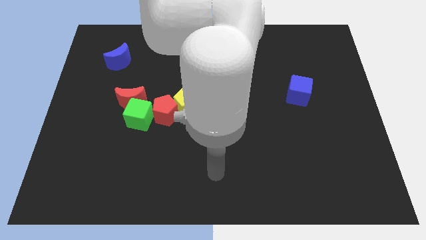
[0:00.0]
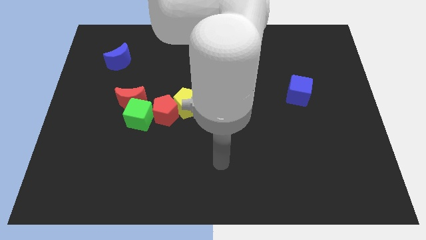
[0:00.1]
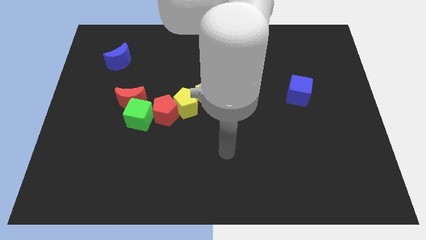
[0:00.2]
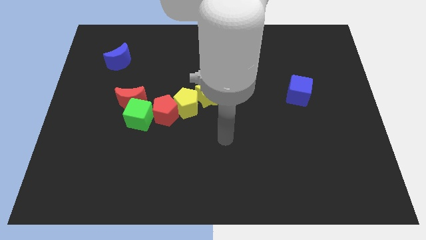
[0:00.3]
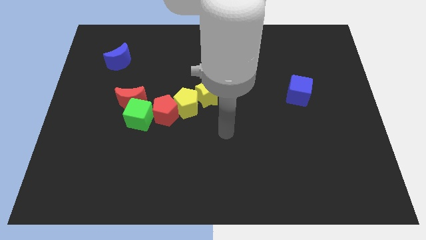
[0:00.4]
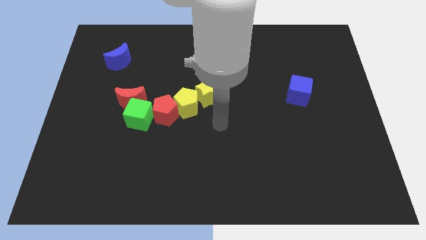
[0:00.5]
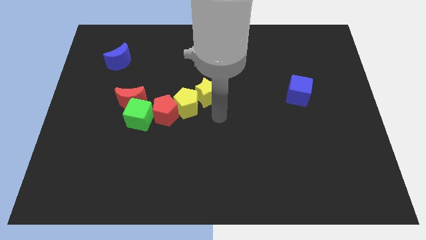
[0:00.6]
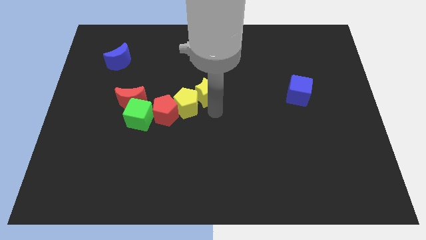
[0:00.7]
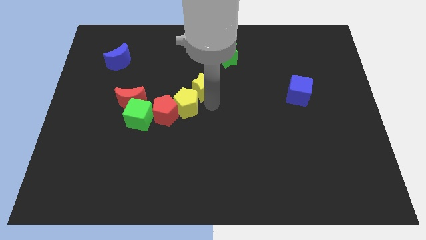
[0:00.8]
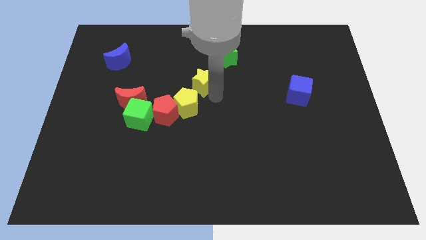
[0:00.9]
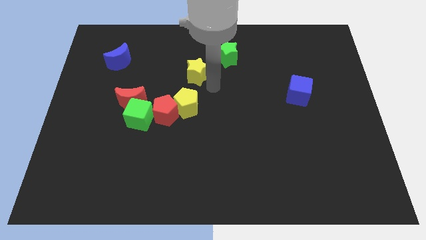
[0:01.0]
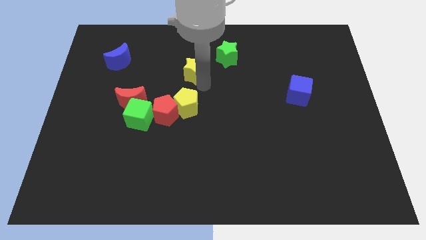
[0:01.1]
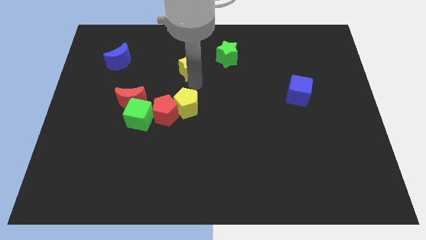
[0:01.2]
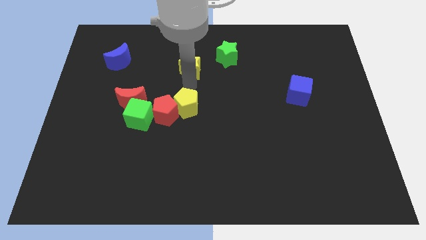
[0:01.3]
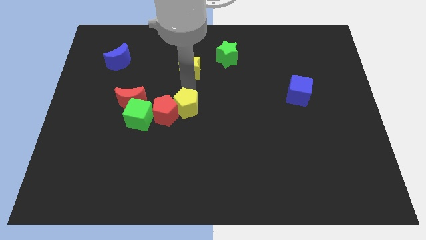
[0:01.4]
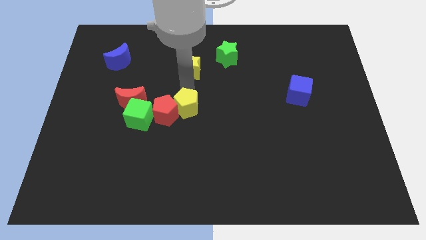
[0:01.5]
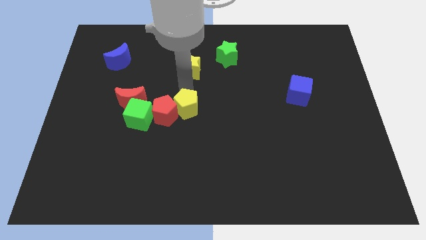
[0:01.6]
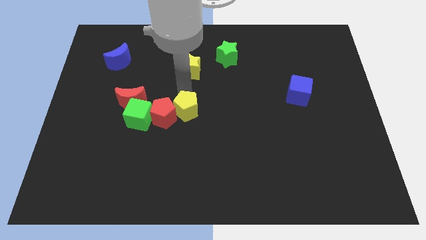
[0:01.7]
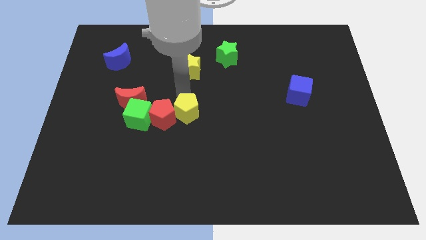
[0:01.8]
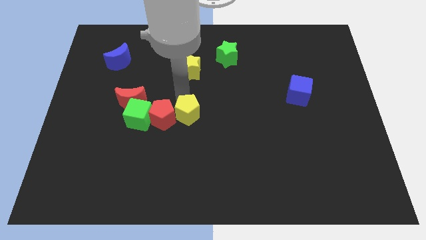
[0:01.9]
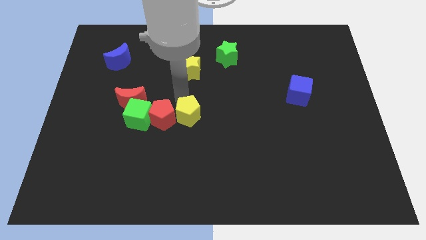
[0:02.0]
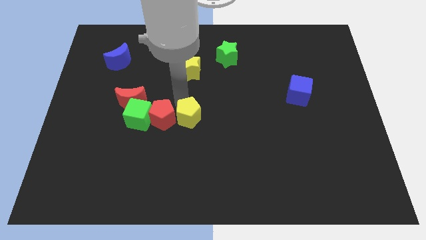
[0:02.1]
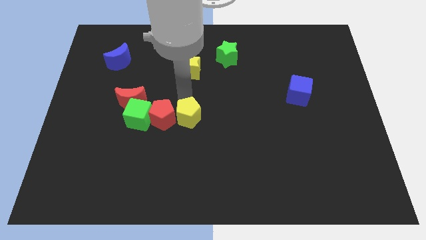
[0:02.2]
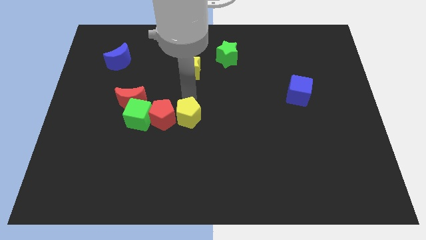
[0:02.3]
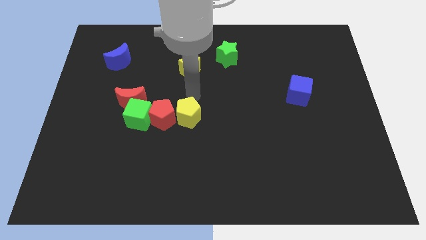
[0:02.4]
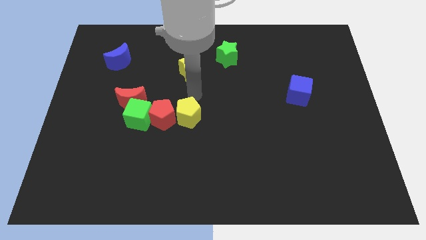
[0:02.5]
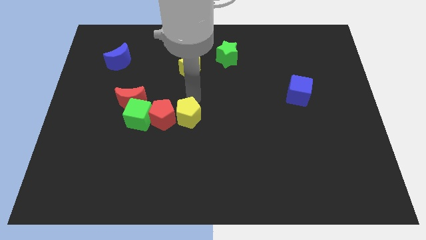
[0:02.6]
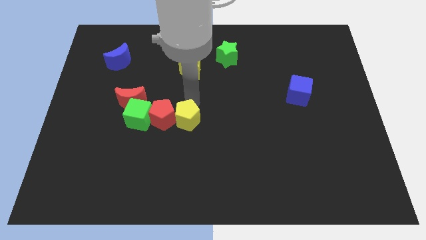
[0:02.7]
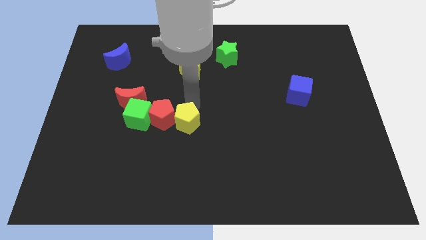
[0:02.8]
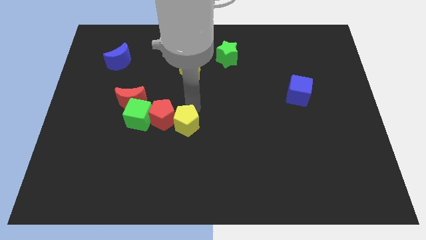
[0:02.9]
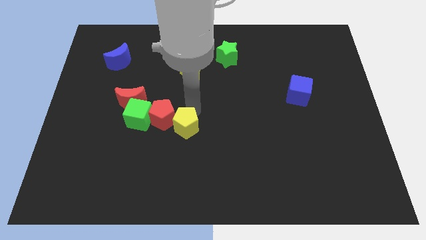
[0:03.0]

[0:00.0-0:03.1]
separate the yellow pentagon from the red pentagon and yellow star

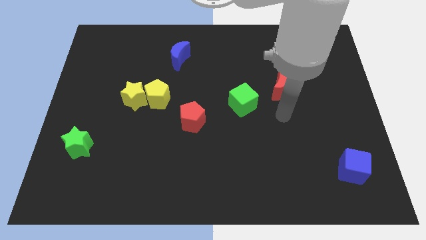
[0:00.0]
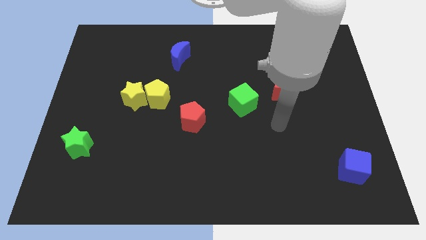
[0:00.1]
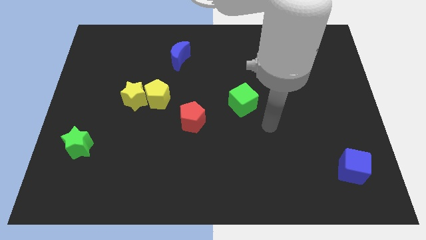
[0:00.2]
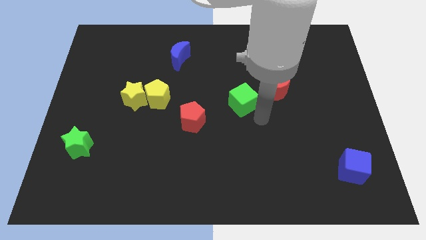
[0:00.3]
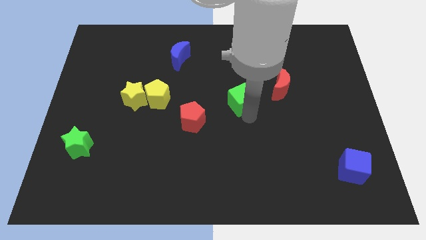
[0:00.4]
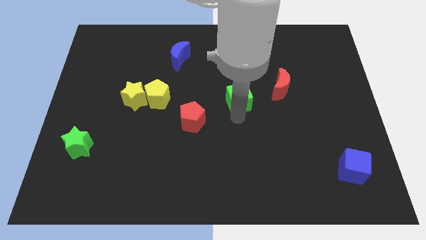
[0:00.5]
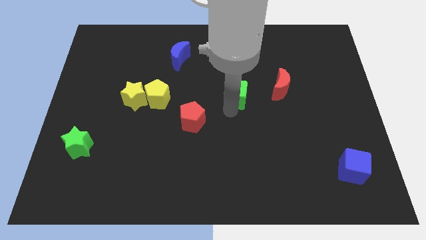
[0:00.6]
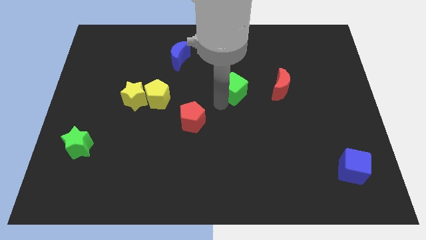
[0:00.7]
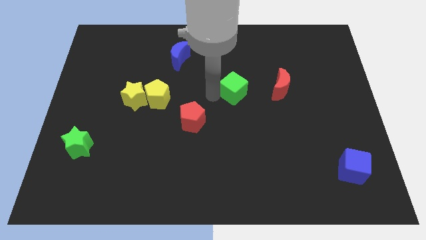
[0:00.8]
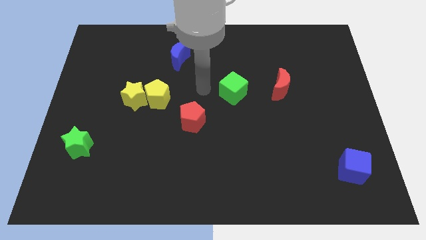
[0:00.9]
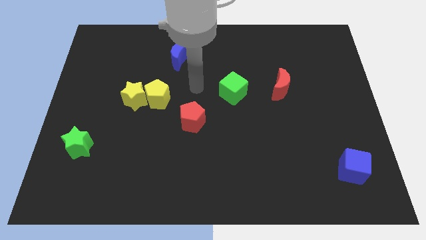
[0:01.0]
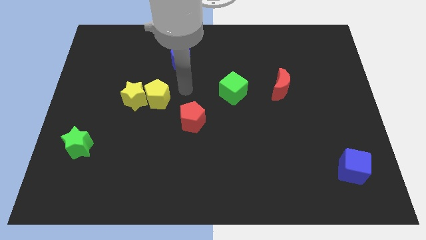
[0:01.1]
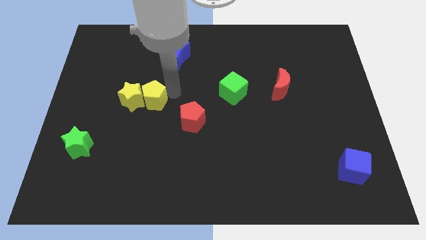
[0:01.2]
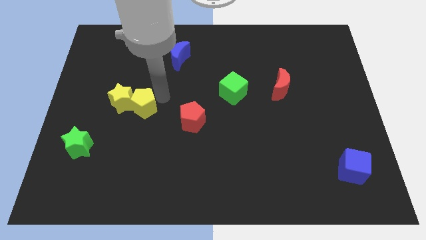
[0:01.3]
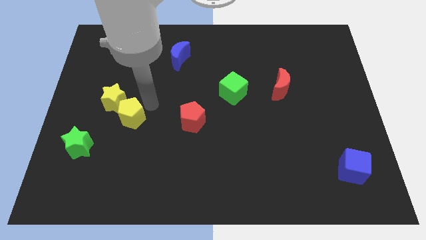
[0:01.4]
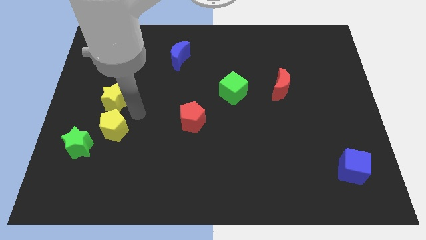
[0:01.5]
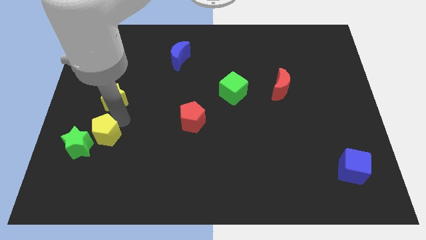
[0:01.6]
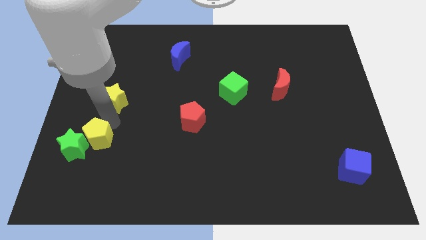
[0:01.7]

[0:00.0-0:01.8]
pull the yellow star apart from the yellow pentagon

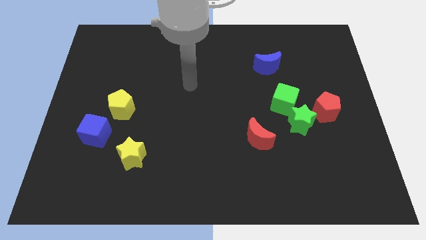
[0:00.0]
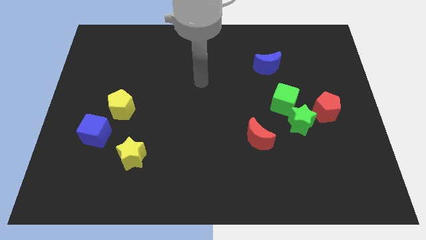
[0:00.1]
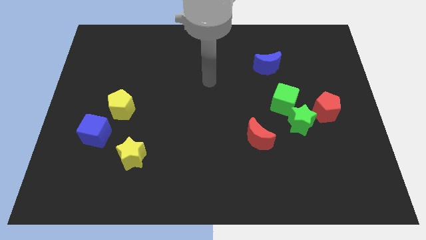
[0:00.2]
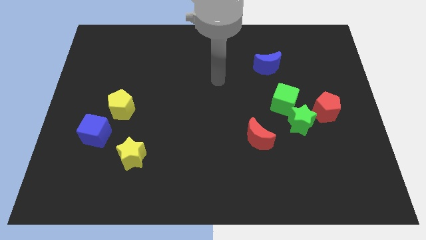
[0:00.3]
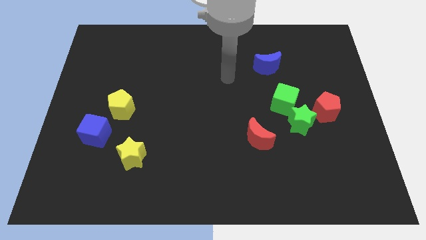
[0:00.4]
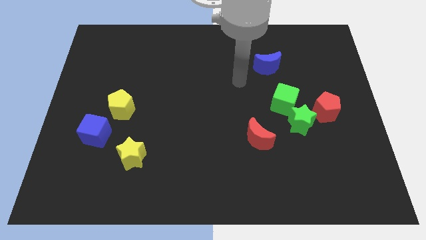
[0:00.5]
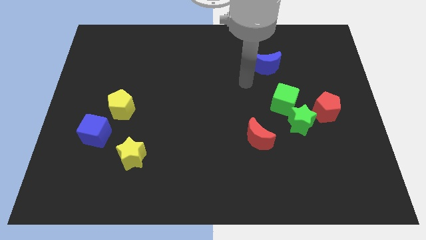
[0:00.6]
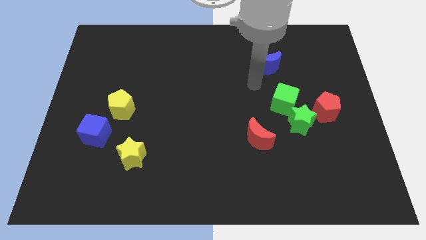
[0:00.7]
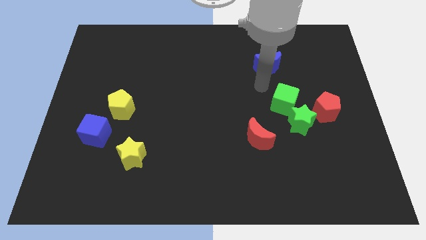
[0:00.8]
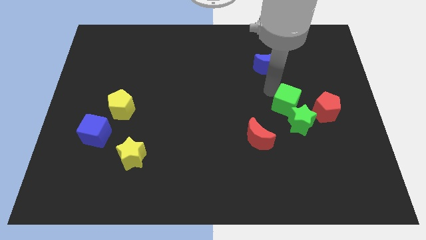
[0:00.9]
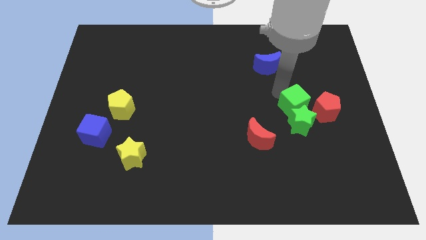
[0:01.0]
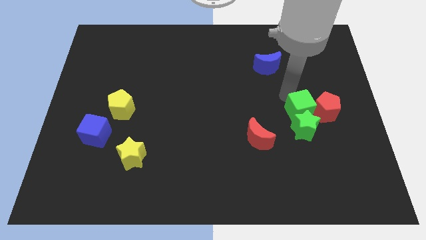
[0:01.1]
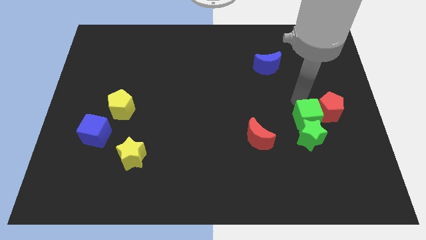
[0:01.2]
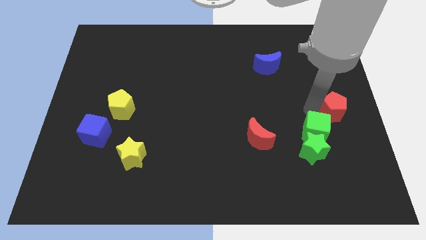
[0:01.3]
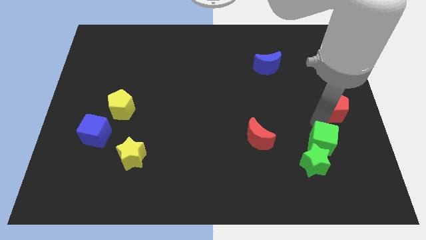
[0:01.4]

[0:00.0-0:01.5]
move the green star away from the green cube and red pentagon

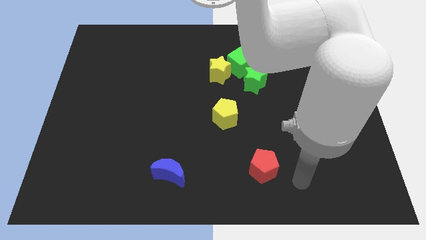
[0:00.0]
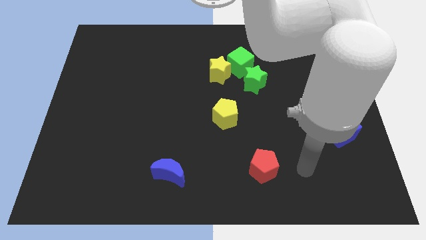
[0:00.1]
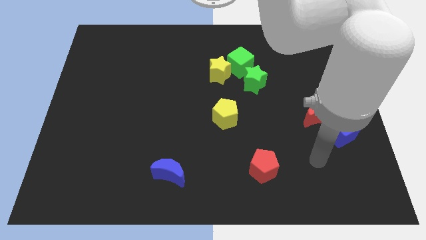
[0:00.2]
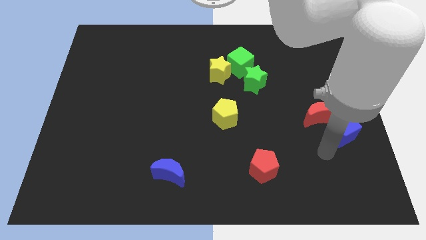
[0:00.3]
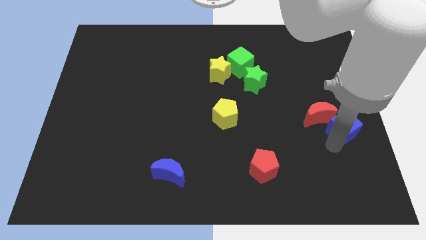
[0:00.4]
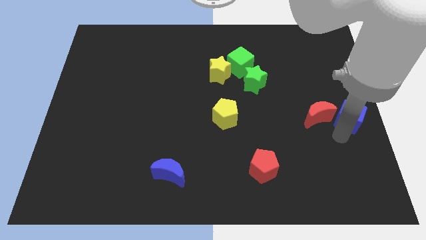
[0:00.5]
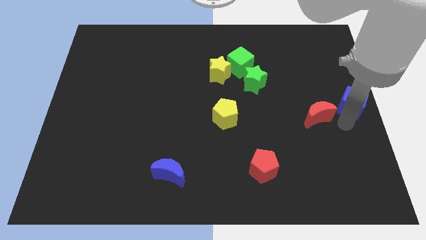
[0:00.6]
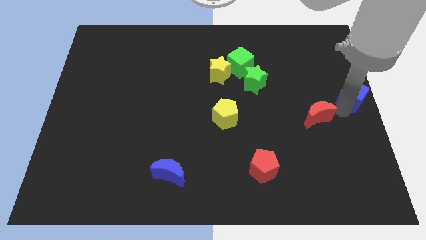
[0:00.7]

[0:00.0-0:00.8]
pull the red moon apart from the blue cube

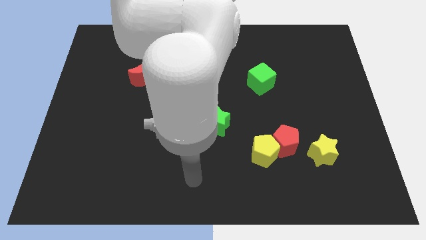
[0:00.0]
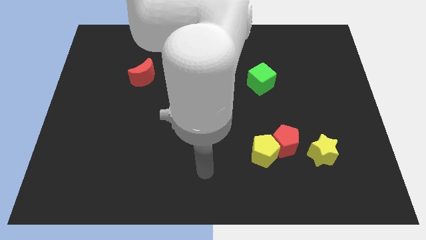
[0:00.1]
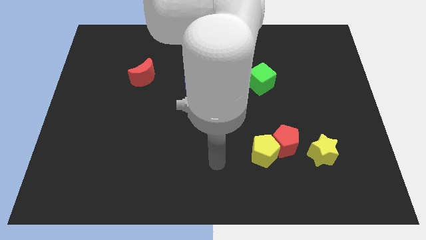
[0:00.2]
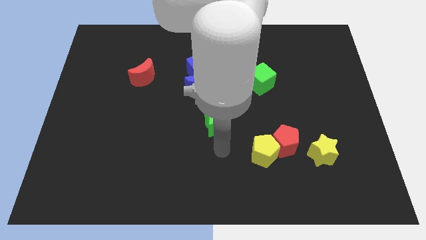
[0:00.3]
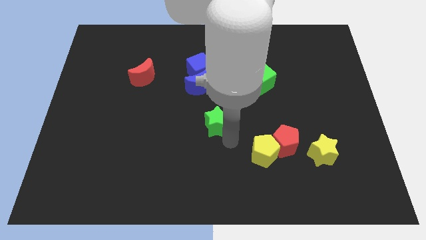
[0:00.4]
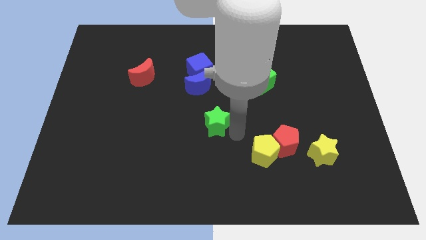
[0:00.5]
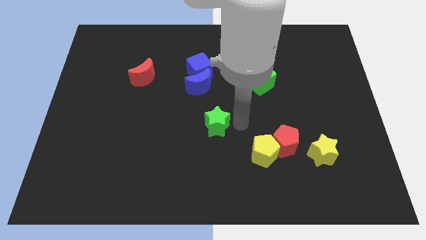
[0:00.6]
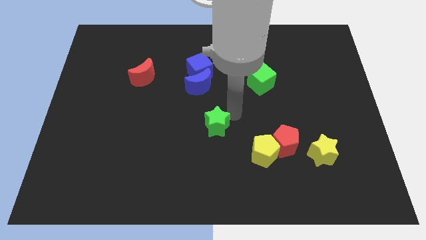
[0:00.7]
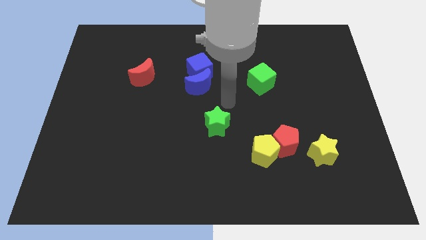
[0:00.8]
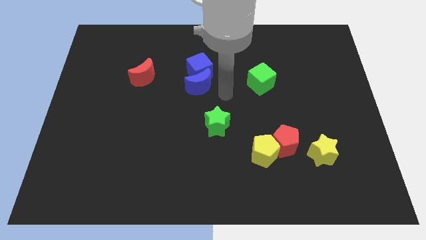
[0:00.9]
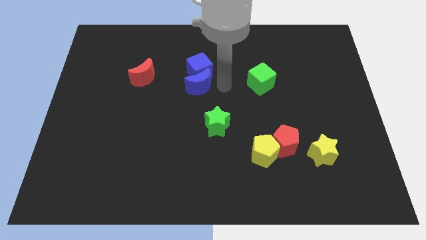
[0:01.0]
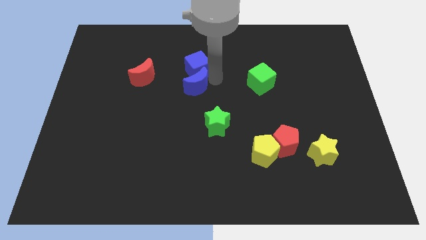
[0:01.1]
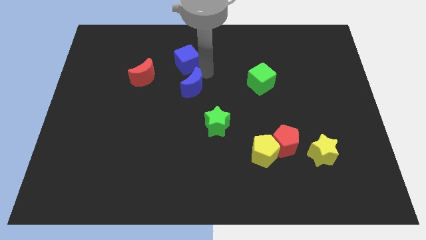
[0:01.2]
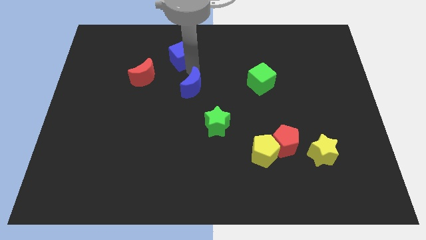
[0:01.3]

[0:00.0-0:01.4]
pull the blue moon apart from the blue cube

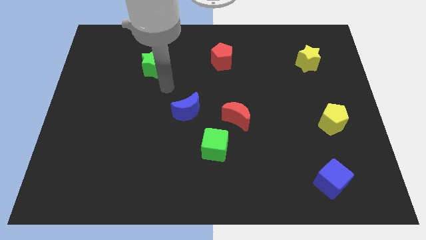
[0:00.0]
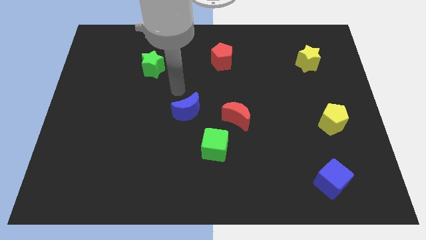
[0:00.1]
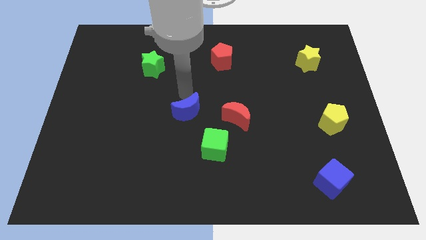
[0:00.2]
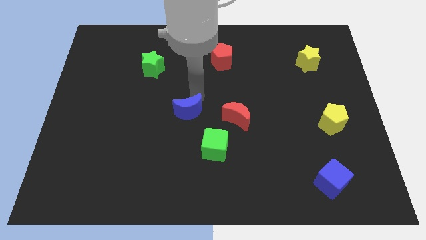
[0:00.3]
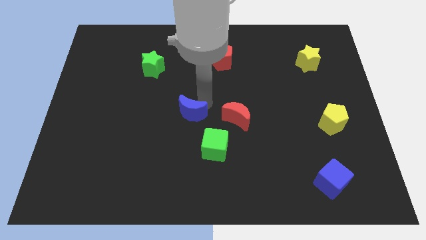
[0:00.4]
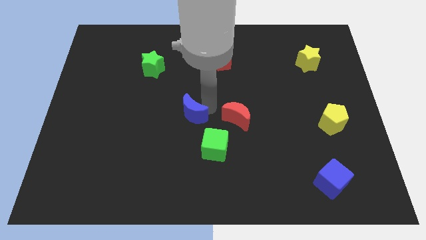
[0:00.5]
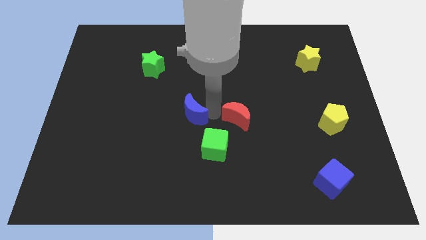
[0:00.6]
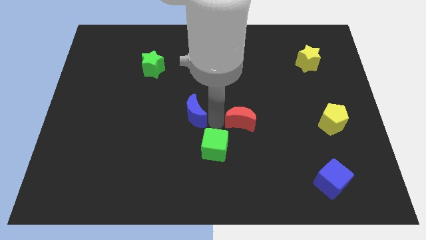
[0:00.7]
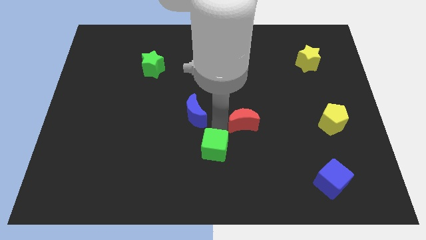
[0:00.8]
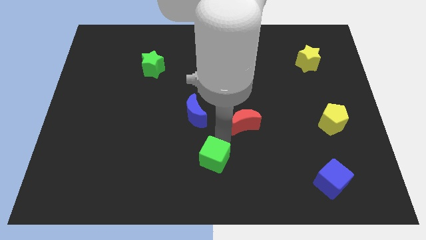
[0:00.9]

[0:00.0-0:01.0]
move the red moon away from the green cube
